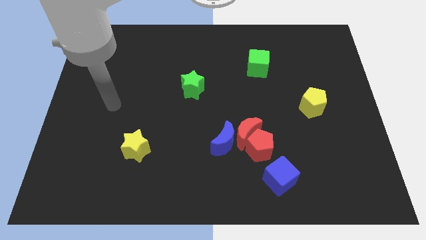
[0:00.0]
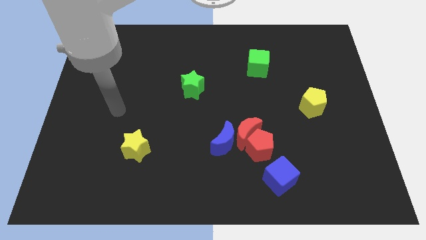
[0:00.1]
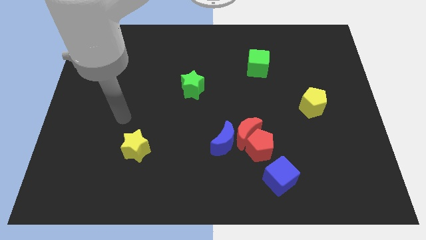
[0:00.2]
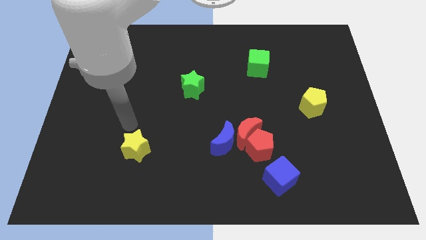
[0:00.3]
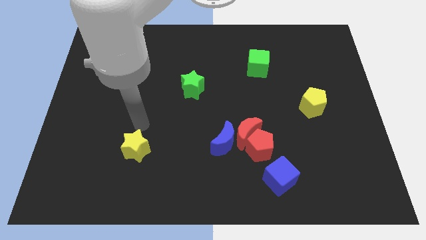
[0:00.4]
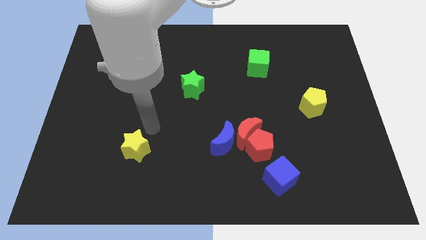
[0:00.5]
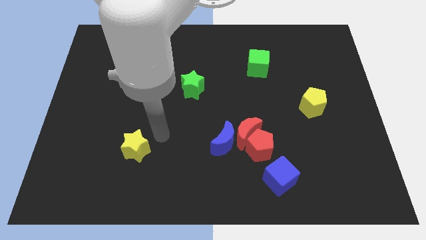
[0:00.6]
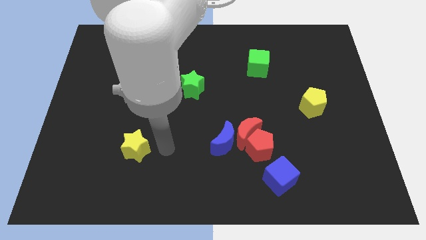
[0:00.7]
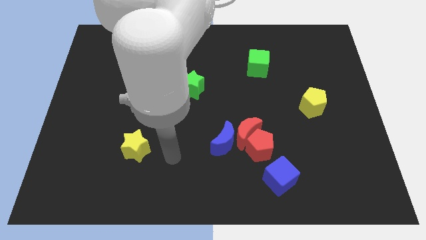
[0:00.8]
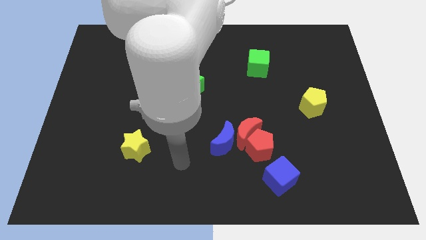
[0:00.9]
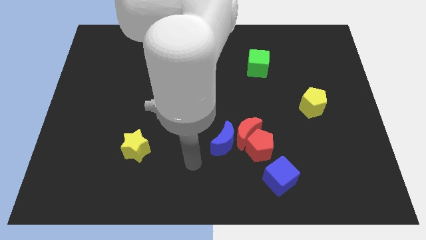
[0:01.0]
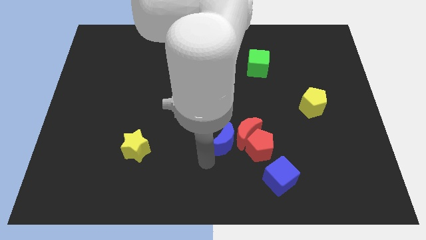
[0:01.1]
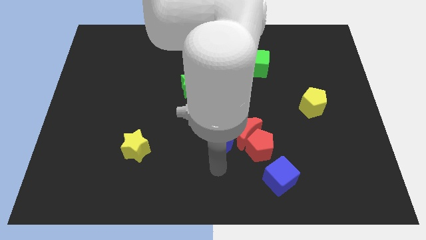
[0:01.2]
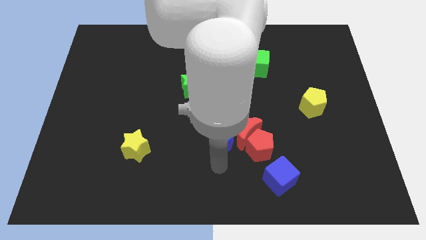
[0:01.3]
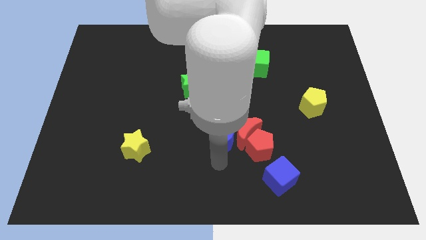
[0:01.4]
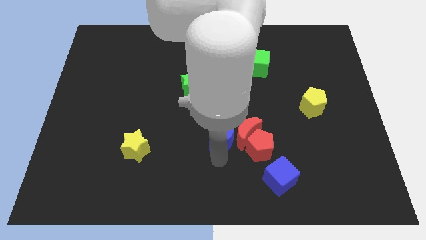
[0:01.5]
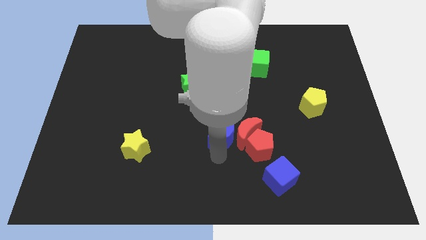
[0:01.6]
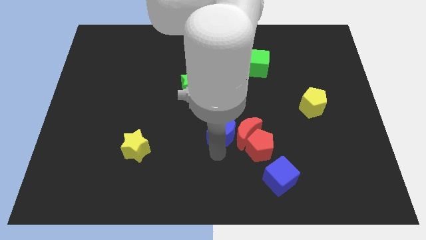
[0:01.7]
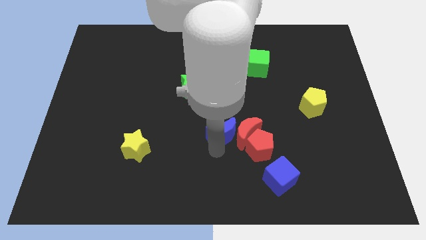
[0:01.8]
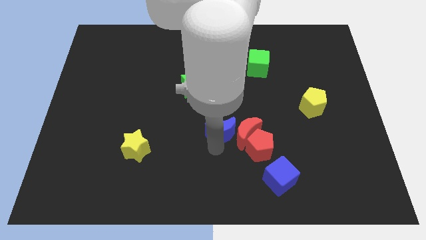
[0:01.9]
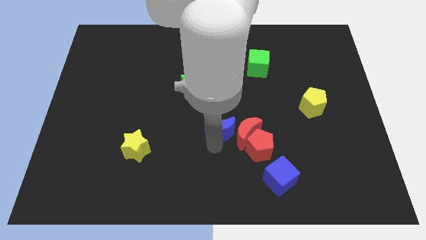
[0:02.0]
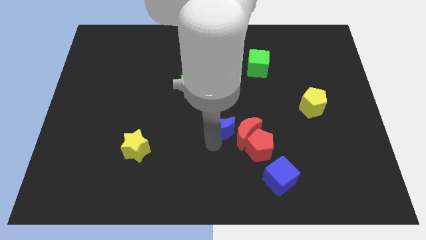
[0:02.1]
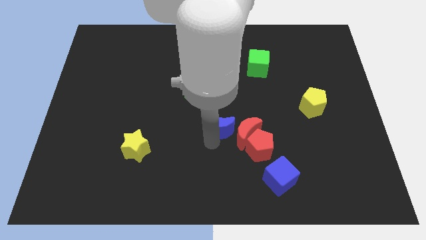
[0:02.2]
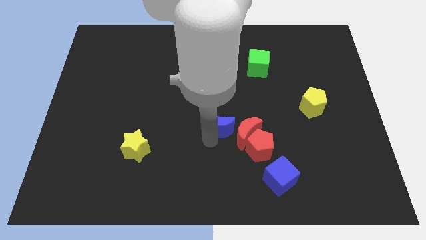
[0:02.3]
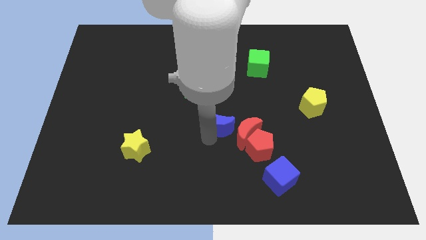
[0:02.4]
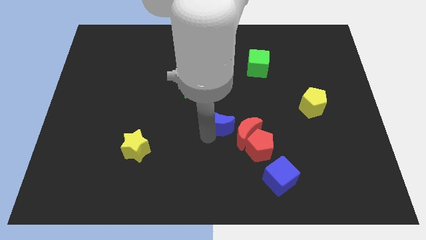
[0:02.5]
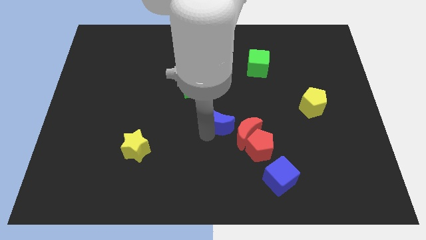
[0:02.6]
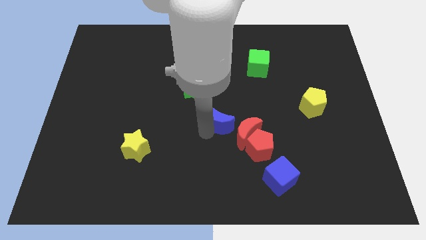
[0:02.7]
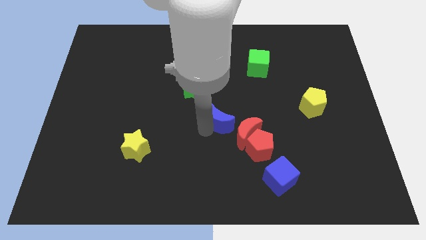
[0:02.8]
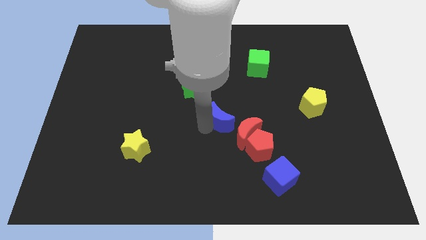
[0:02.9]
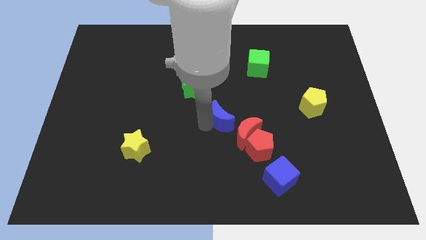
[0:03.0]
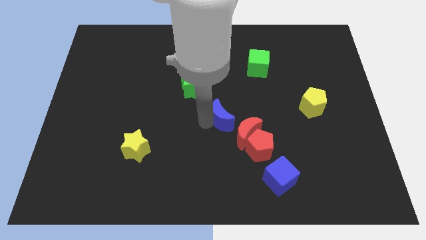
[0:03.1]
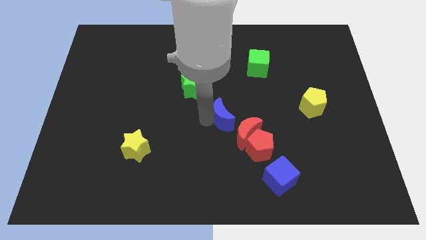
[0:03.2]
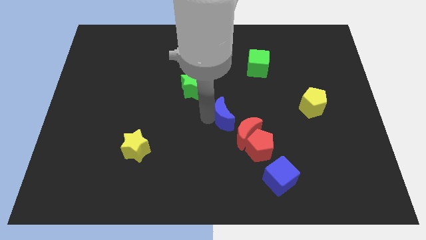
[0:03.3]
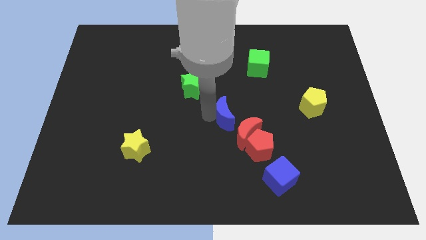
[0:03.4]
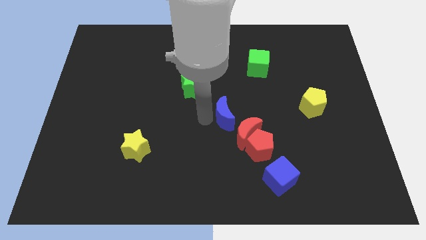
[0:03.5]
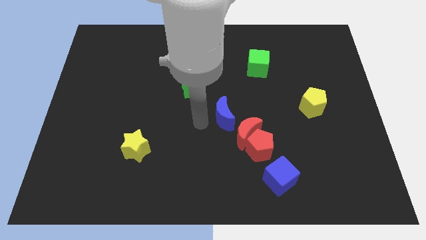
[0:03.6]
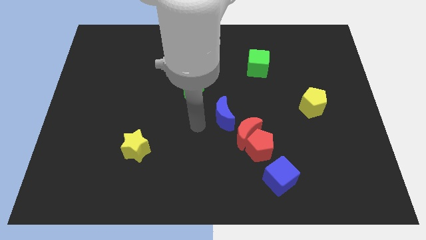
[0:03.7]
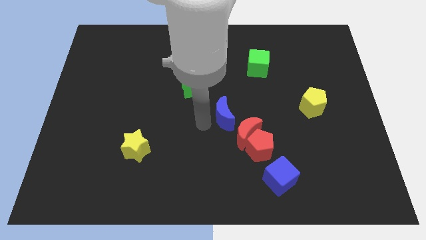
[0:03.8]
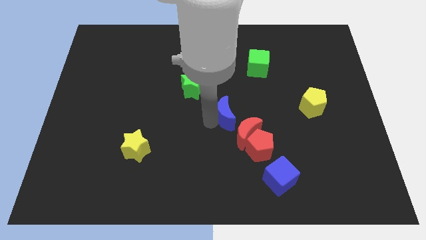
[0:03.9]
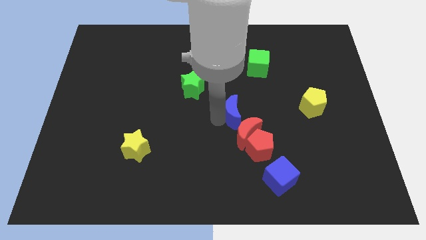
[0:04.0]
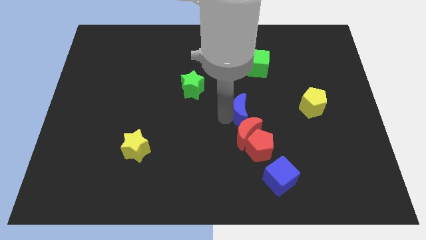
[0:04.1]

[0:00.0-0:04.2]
slide the blue moon a little diagonally up and to the right

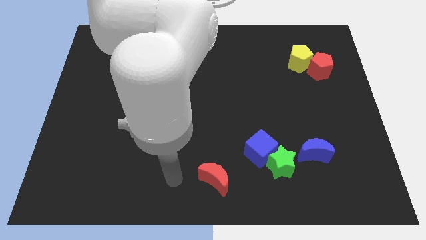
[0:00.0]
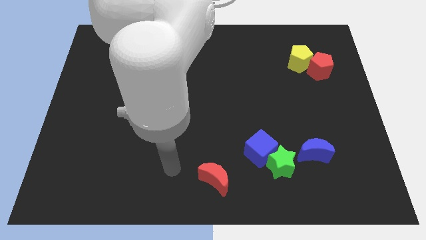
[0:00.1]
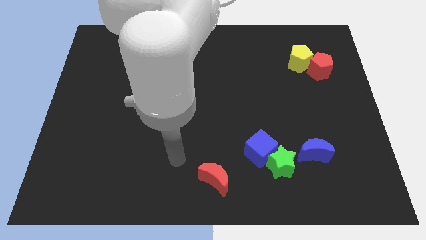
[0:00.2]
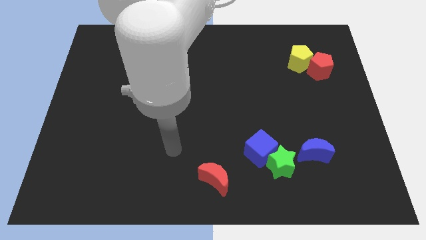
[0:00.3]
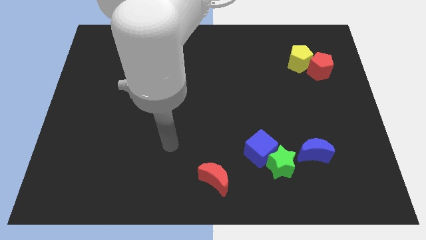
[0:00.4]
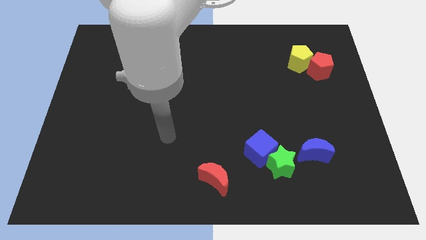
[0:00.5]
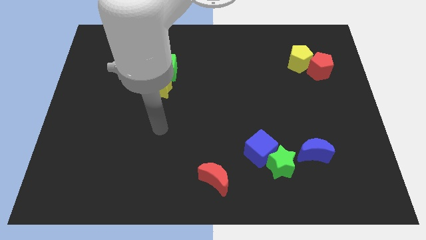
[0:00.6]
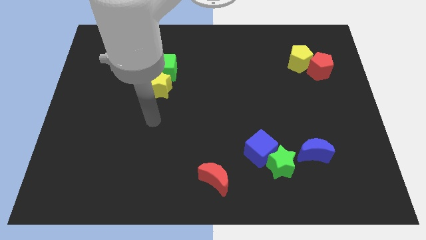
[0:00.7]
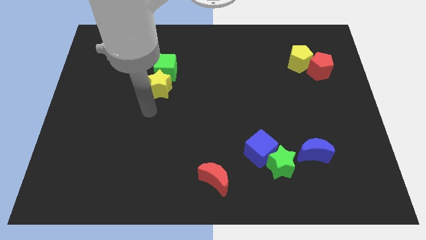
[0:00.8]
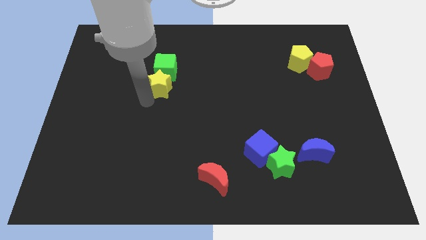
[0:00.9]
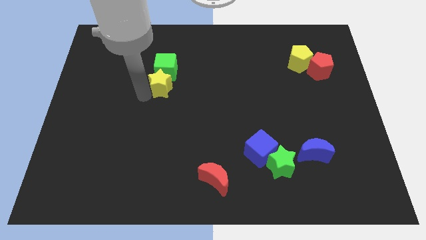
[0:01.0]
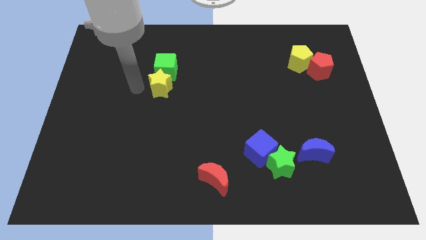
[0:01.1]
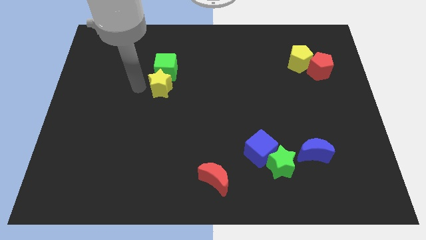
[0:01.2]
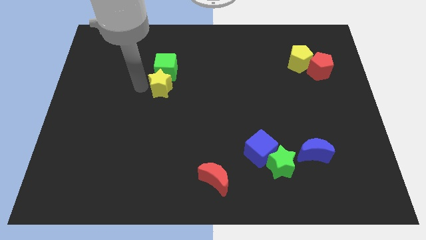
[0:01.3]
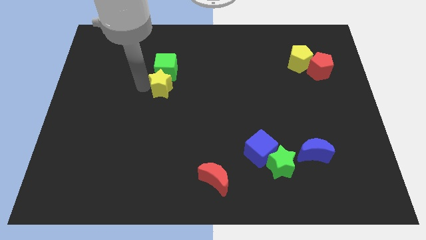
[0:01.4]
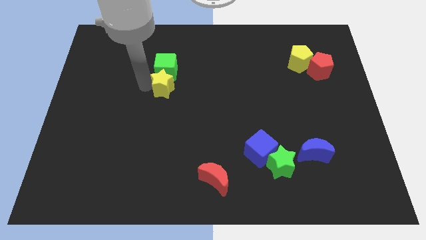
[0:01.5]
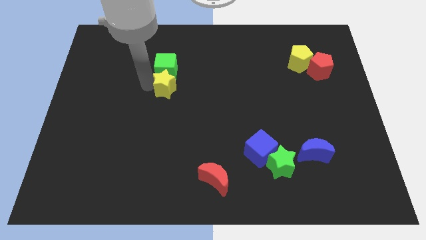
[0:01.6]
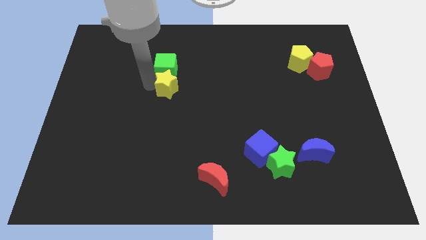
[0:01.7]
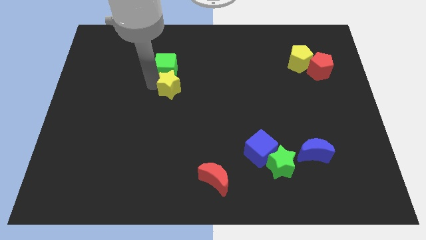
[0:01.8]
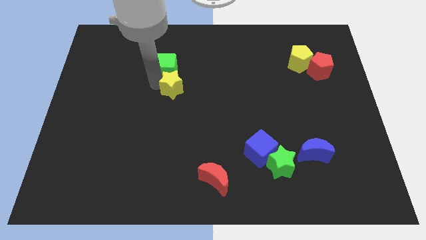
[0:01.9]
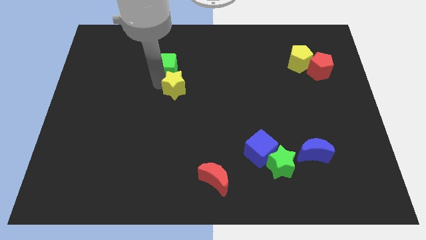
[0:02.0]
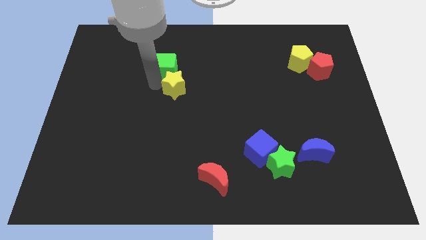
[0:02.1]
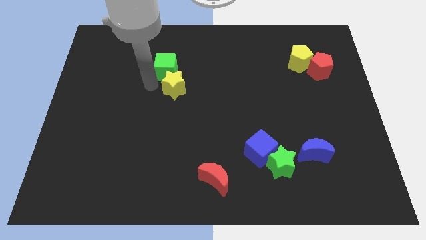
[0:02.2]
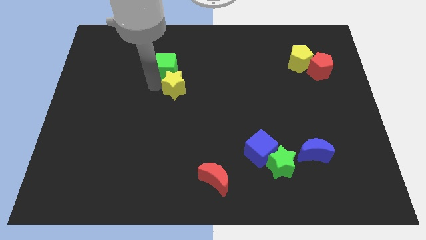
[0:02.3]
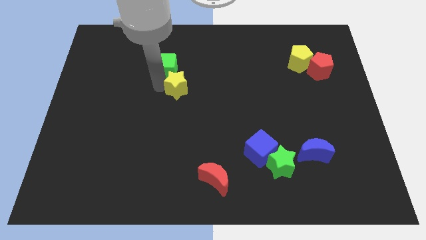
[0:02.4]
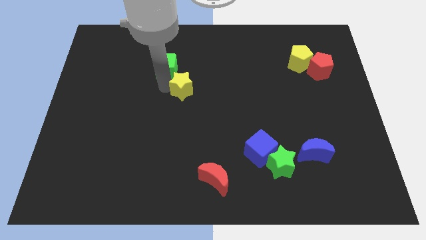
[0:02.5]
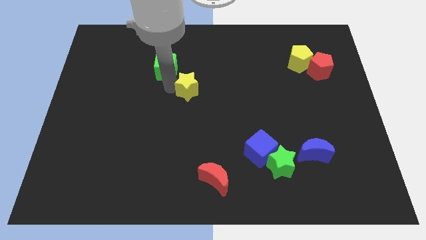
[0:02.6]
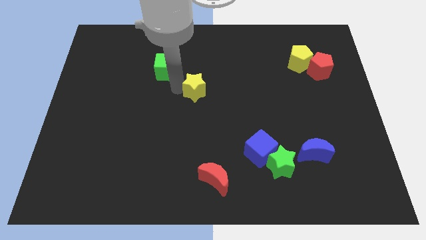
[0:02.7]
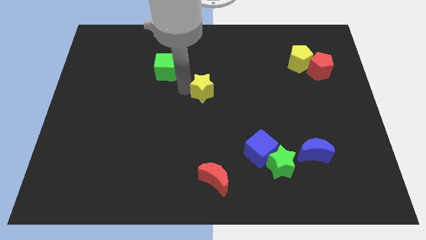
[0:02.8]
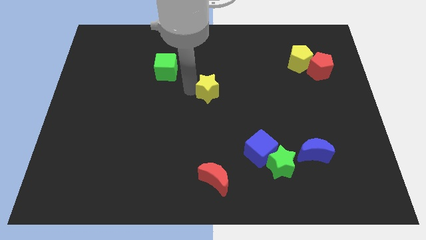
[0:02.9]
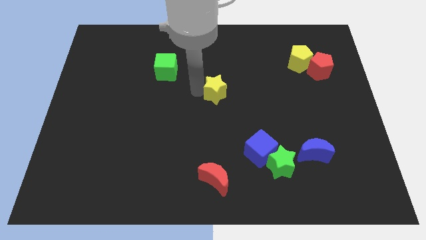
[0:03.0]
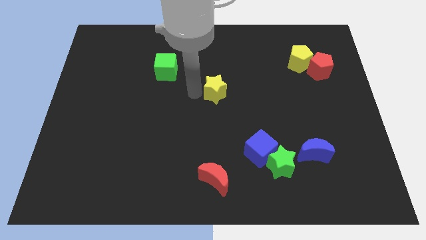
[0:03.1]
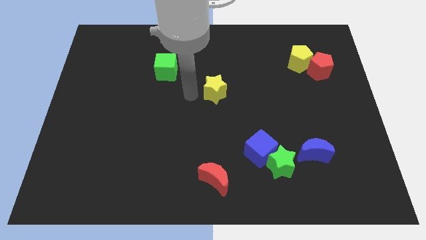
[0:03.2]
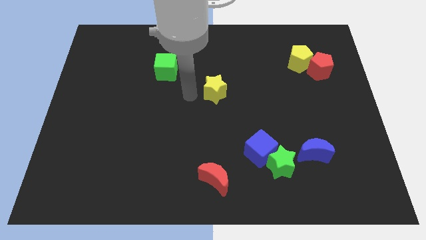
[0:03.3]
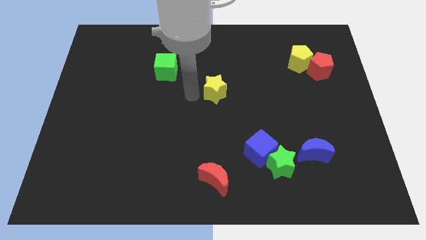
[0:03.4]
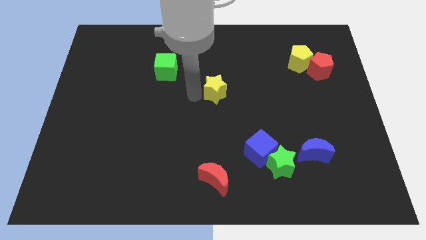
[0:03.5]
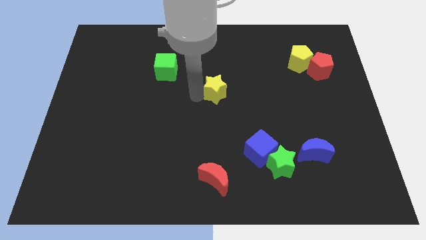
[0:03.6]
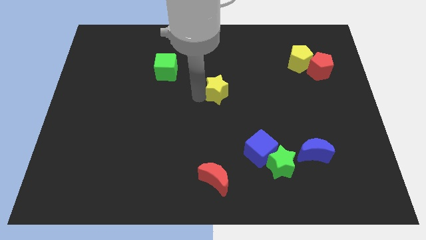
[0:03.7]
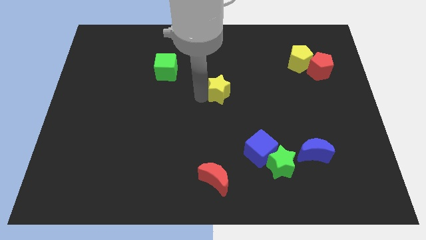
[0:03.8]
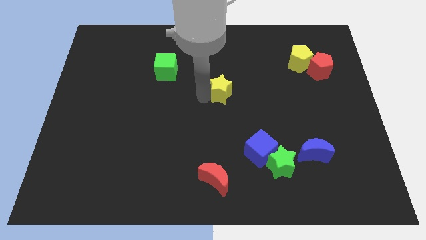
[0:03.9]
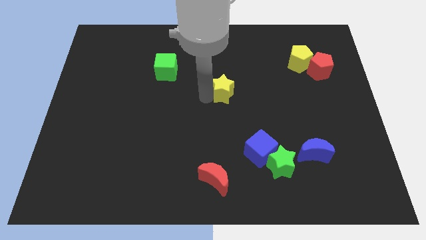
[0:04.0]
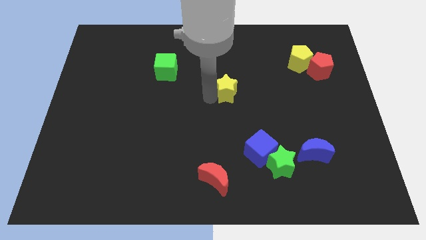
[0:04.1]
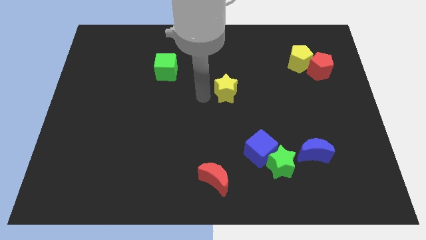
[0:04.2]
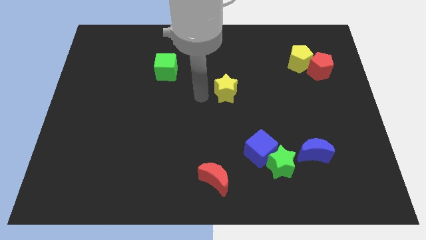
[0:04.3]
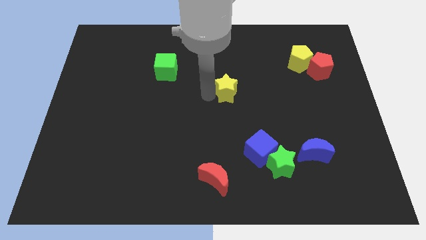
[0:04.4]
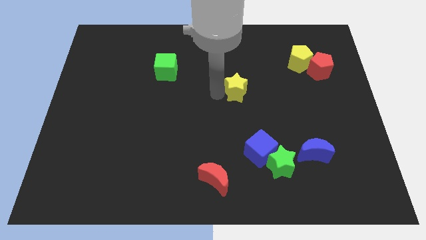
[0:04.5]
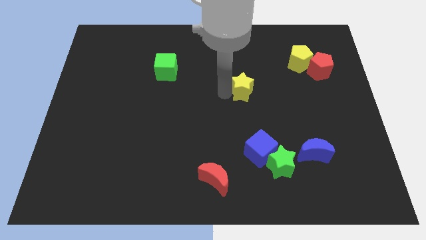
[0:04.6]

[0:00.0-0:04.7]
push the yellow star to the right
